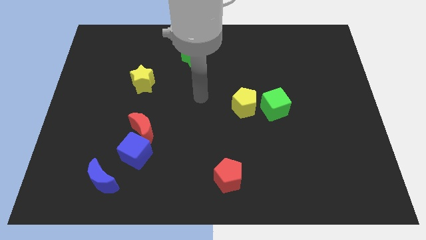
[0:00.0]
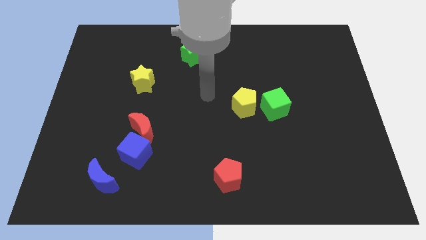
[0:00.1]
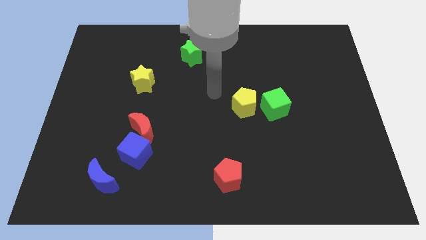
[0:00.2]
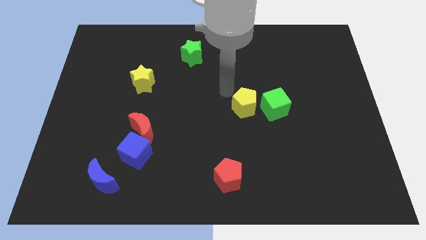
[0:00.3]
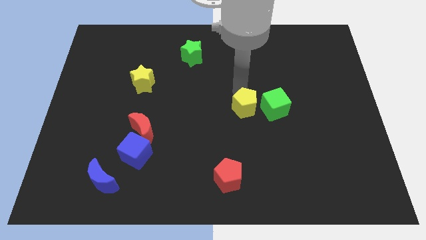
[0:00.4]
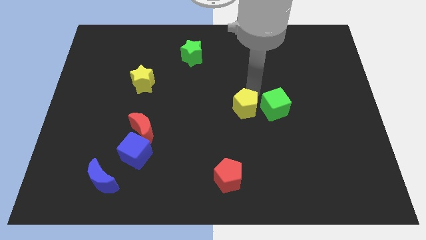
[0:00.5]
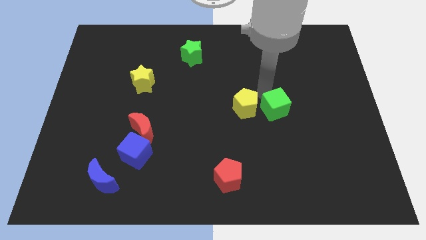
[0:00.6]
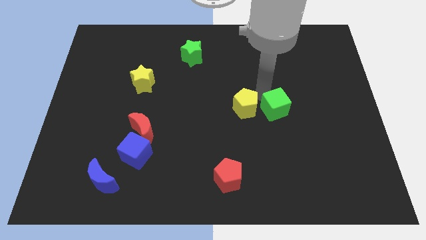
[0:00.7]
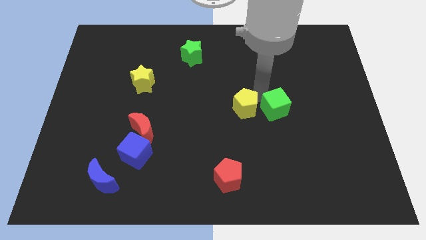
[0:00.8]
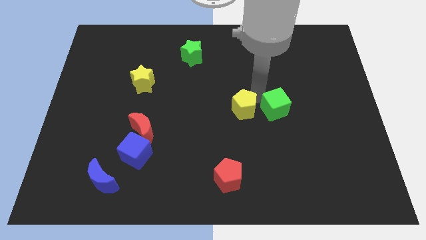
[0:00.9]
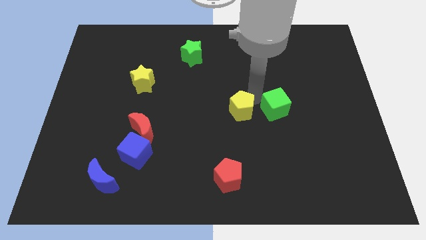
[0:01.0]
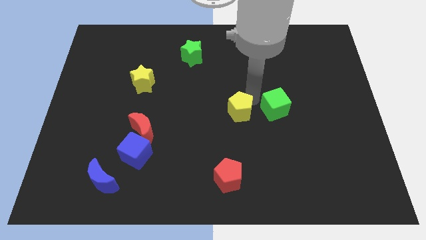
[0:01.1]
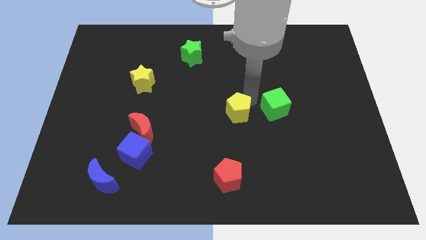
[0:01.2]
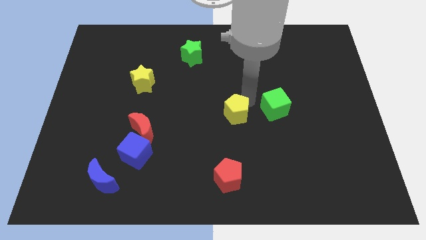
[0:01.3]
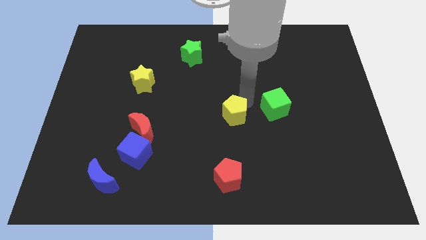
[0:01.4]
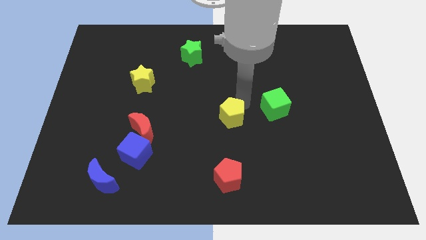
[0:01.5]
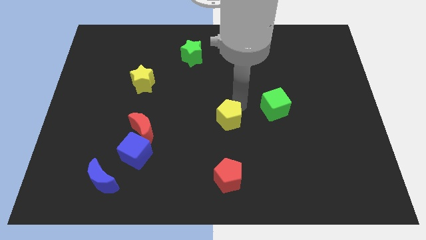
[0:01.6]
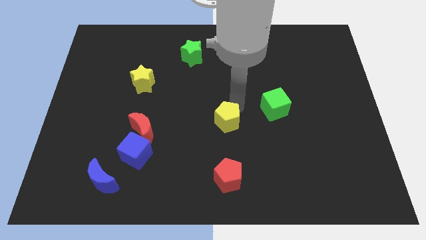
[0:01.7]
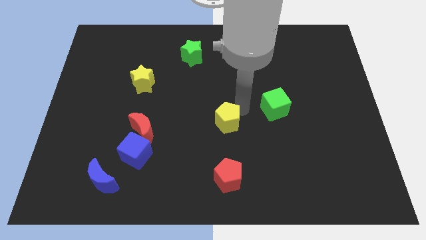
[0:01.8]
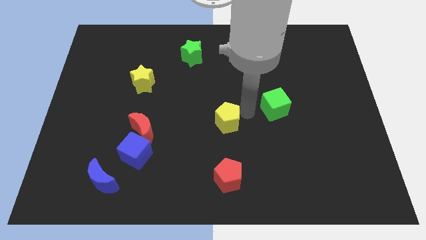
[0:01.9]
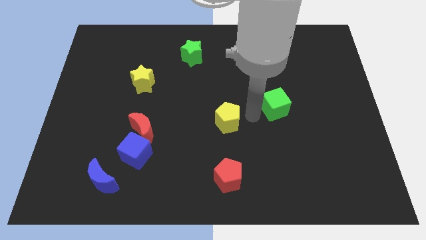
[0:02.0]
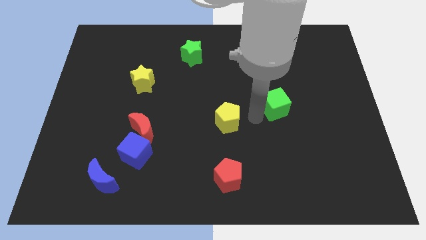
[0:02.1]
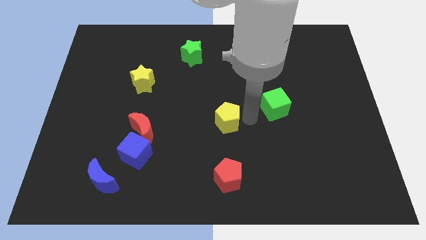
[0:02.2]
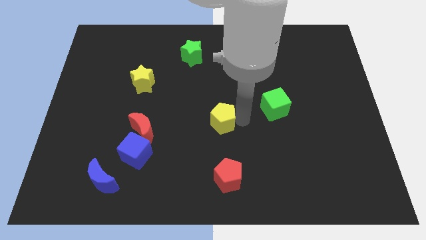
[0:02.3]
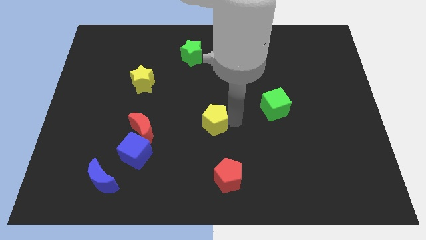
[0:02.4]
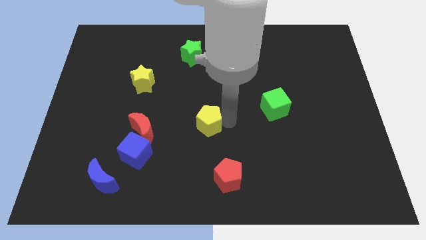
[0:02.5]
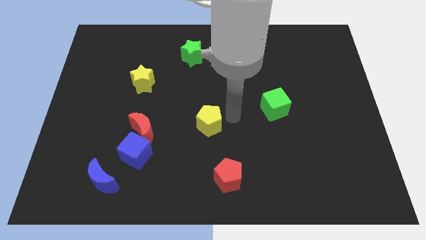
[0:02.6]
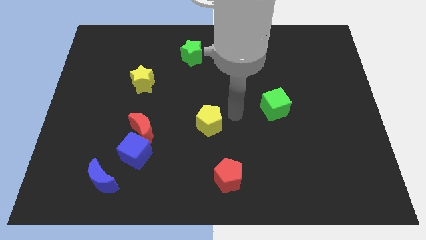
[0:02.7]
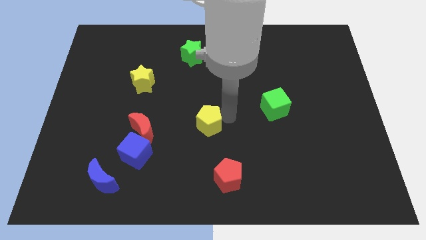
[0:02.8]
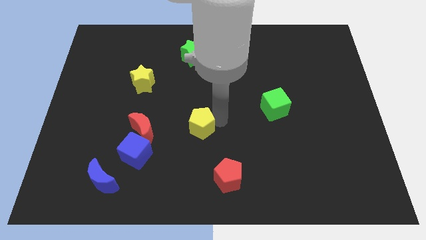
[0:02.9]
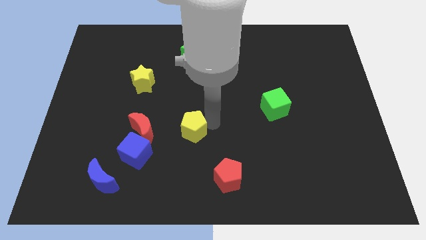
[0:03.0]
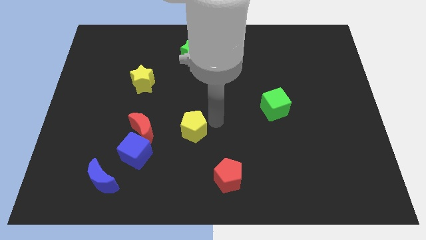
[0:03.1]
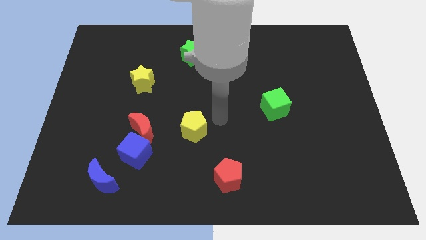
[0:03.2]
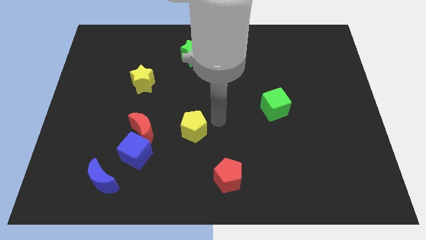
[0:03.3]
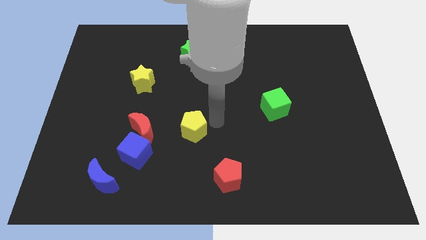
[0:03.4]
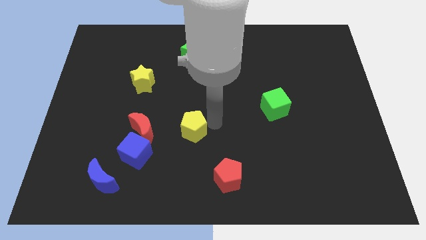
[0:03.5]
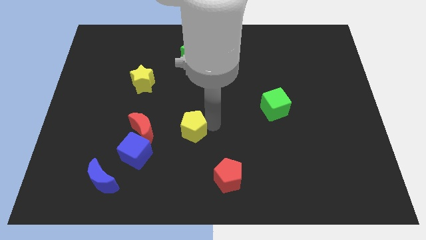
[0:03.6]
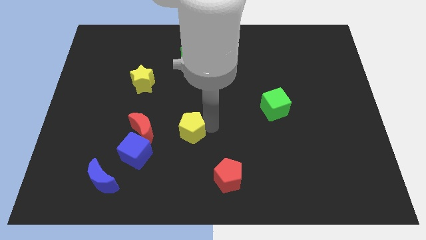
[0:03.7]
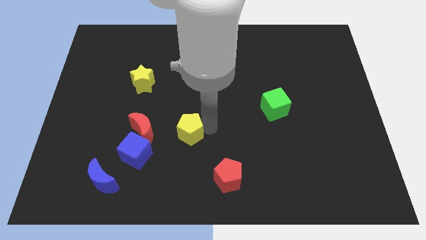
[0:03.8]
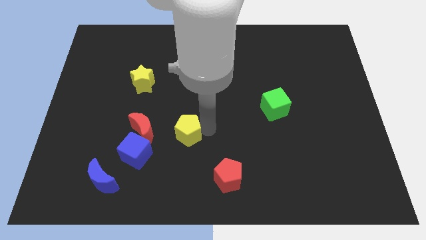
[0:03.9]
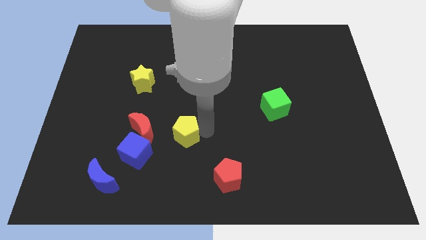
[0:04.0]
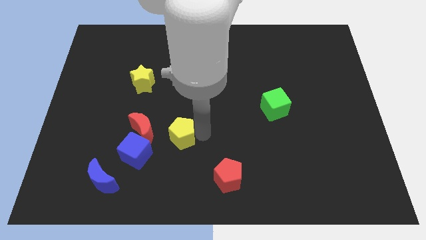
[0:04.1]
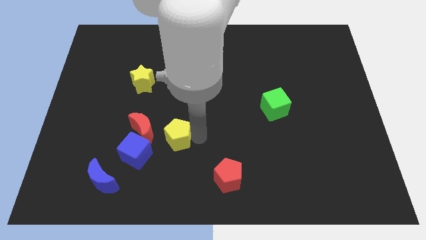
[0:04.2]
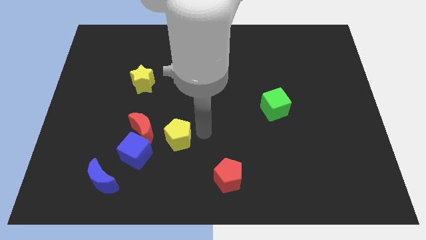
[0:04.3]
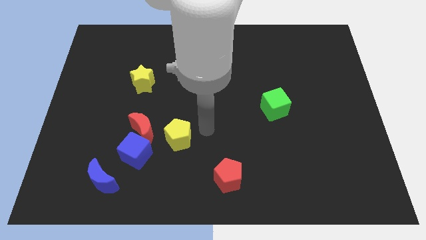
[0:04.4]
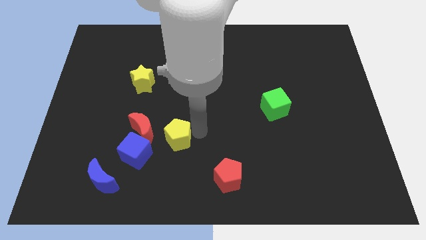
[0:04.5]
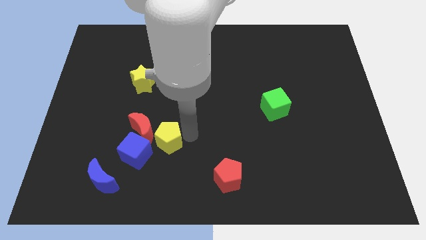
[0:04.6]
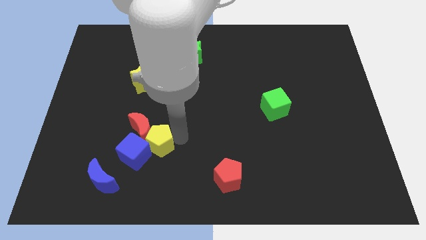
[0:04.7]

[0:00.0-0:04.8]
put the yellow pentagon towards the blue cube

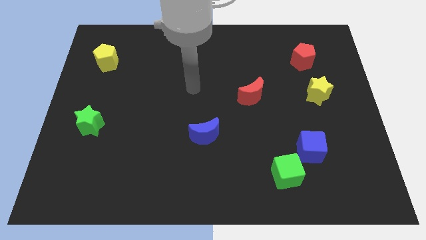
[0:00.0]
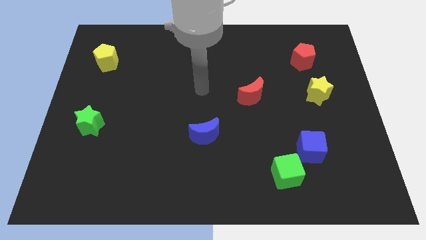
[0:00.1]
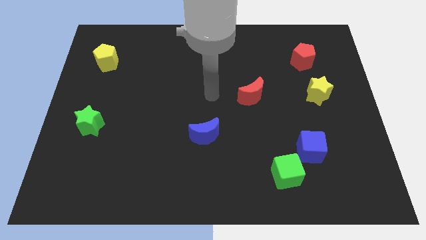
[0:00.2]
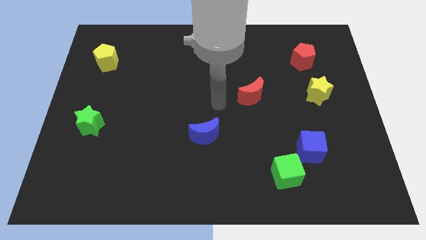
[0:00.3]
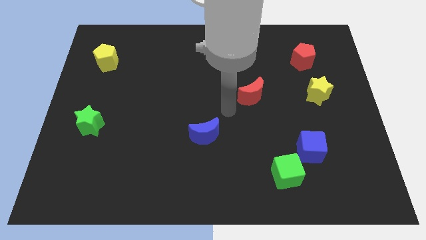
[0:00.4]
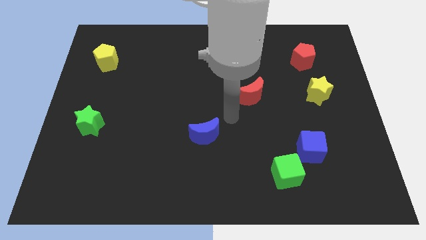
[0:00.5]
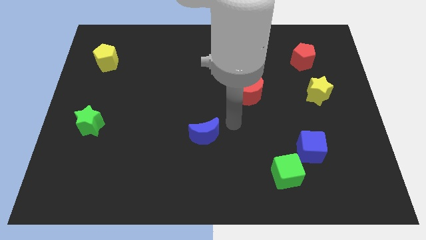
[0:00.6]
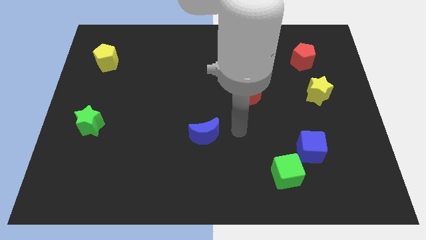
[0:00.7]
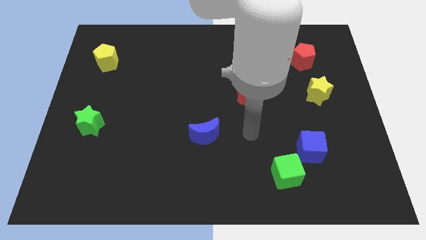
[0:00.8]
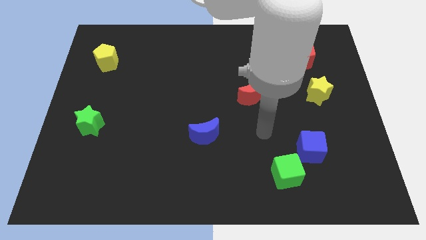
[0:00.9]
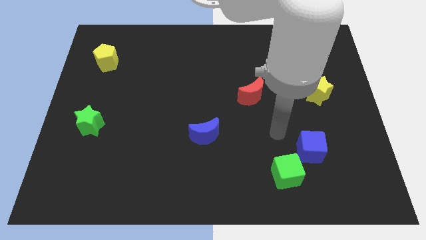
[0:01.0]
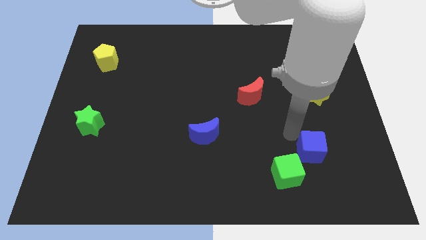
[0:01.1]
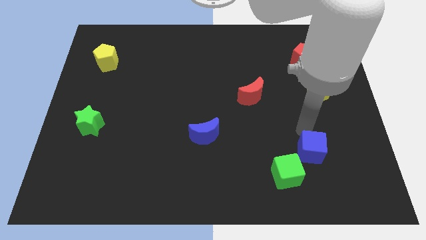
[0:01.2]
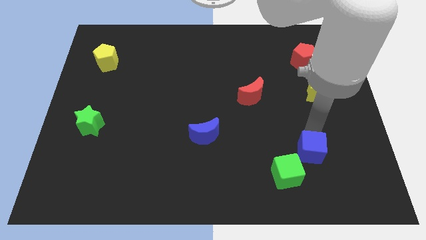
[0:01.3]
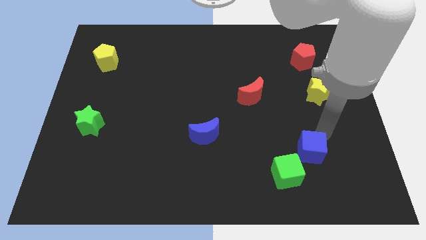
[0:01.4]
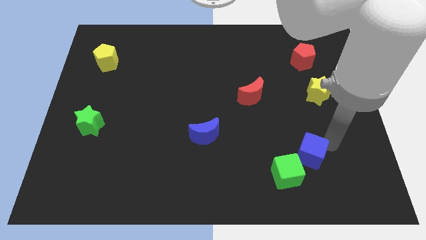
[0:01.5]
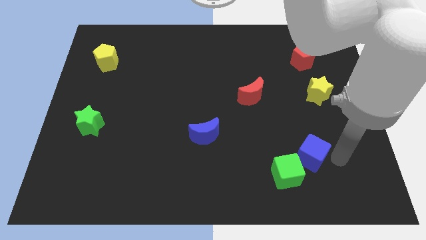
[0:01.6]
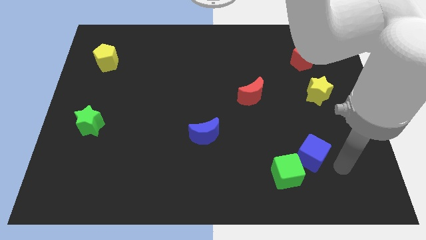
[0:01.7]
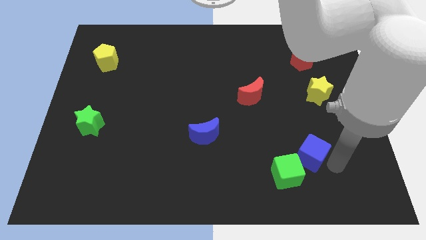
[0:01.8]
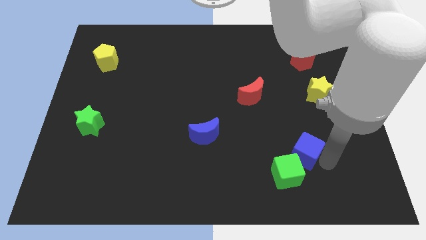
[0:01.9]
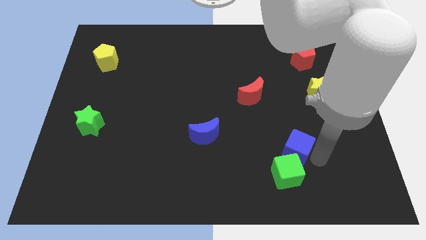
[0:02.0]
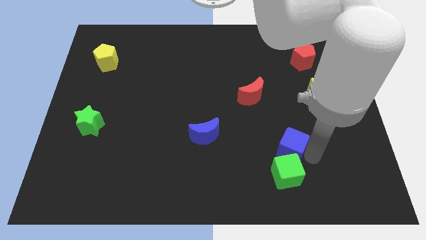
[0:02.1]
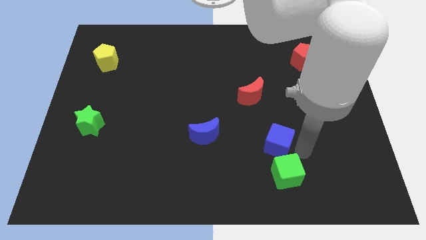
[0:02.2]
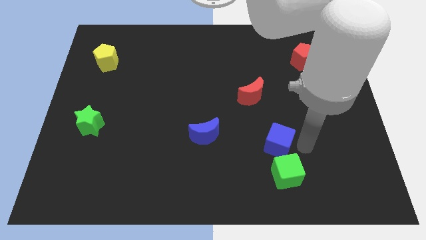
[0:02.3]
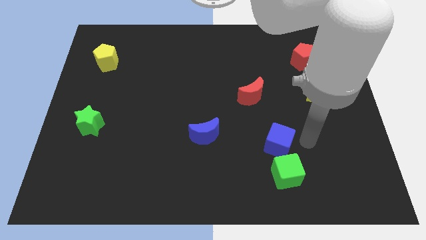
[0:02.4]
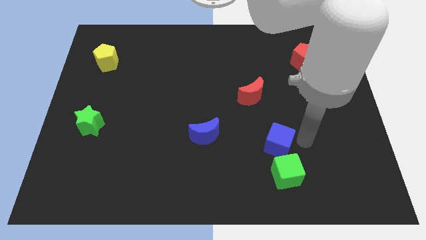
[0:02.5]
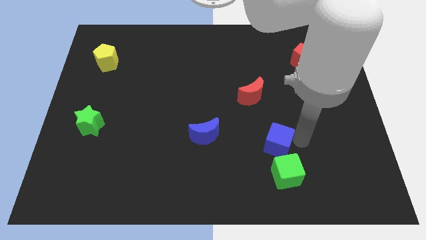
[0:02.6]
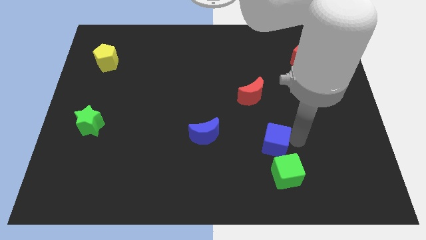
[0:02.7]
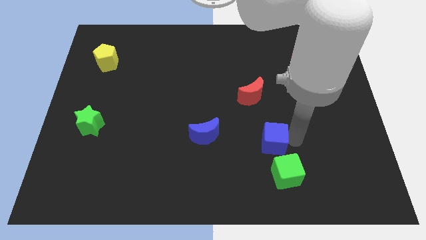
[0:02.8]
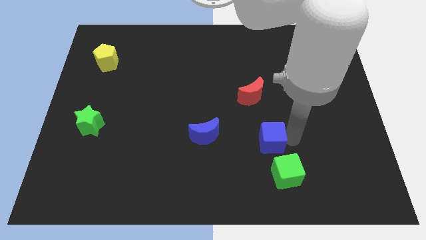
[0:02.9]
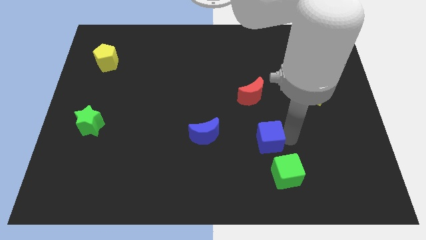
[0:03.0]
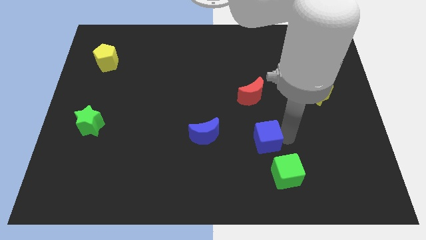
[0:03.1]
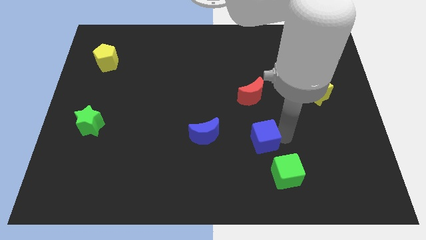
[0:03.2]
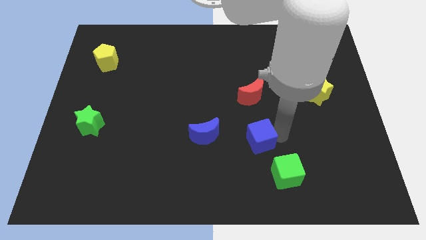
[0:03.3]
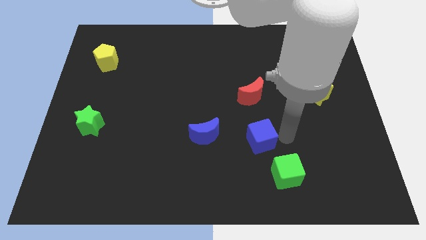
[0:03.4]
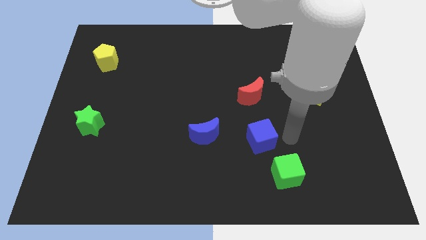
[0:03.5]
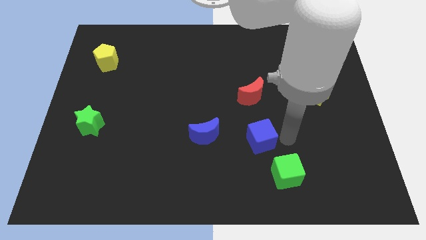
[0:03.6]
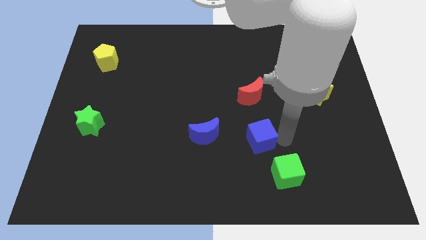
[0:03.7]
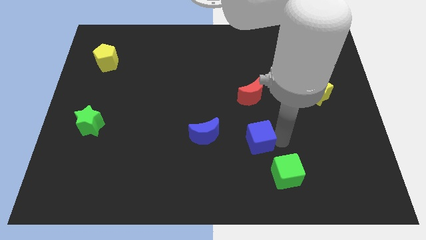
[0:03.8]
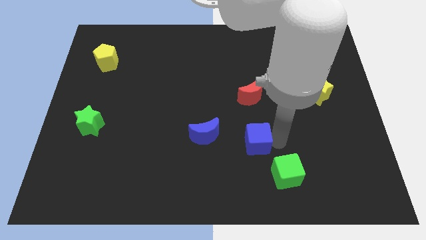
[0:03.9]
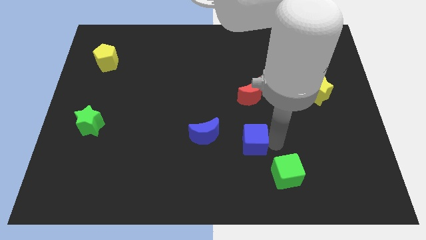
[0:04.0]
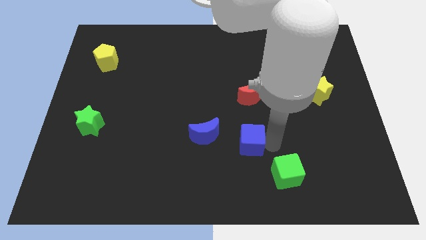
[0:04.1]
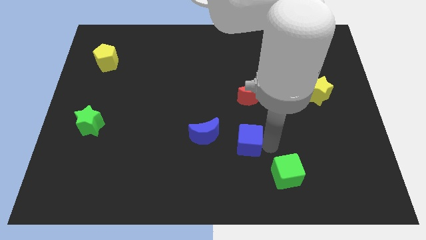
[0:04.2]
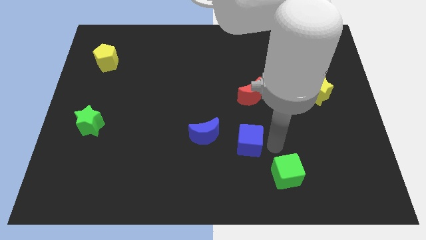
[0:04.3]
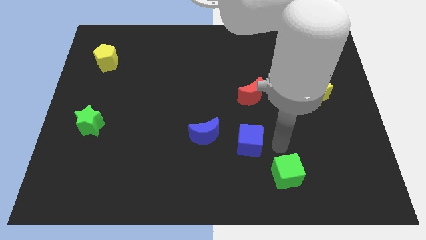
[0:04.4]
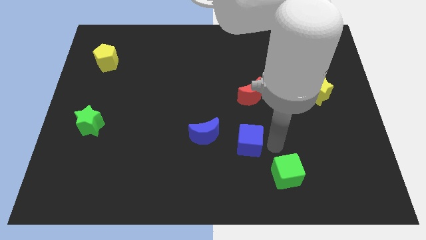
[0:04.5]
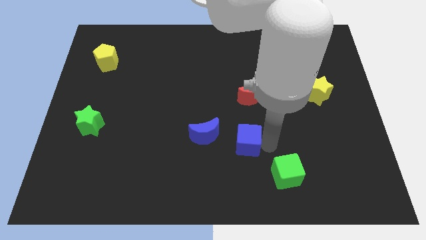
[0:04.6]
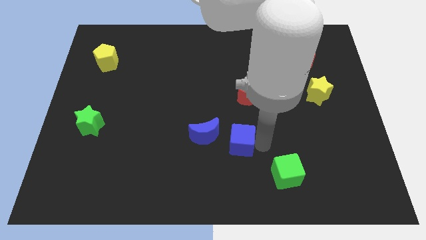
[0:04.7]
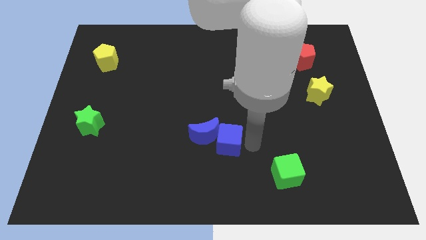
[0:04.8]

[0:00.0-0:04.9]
slide the blue cube next to the blue moon
